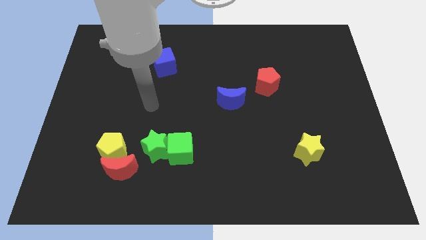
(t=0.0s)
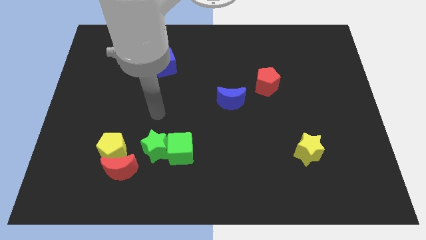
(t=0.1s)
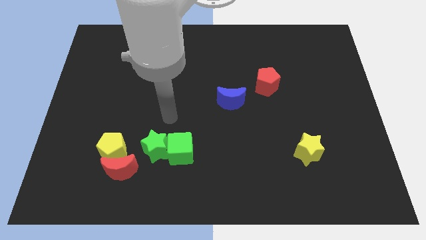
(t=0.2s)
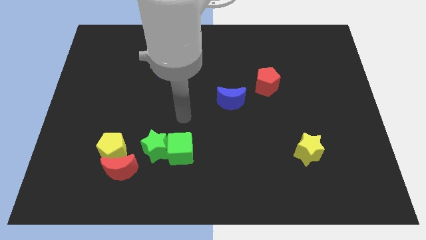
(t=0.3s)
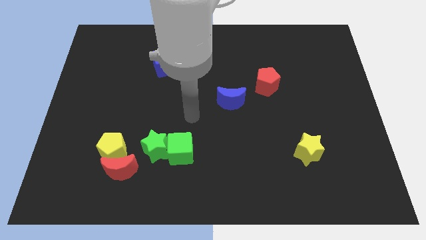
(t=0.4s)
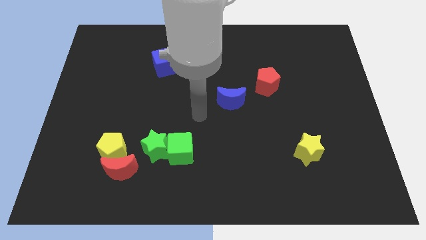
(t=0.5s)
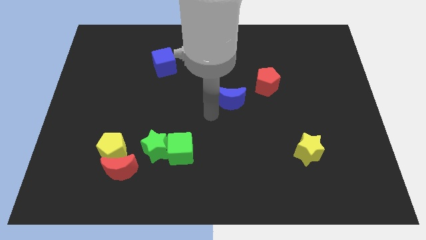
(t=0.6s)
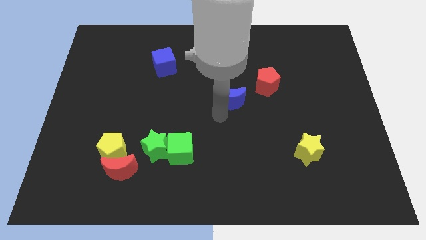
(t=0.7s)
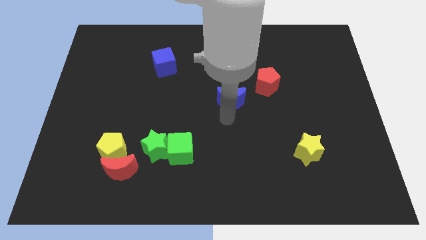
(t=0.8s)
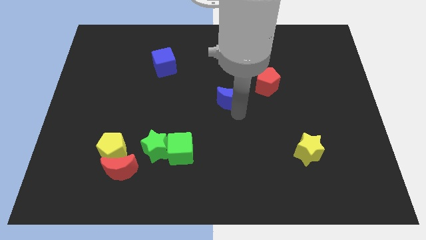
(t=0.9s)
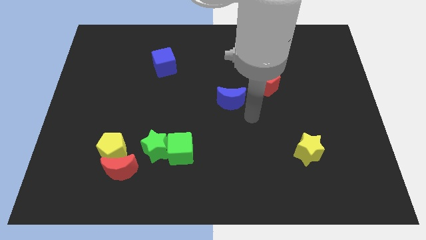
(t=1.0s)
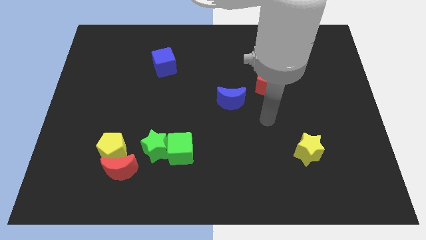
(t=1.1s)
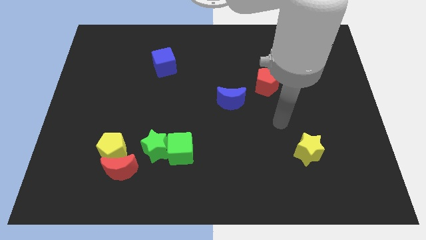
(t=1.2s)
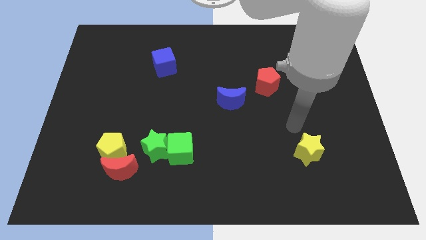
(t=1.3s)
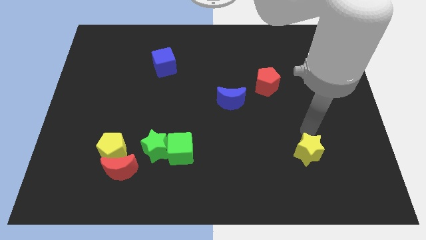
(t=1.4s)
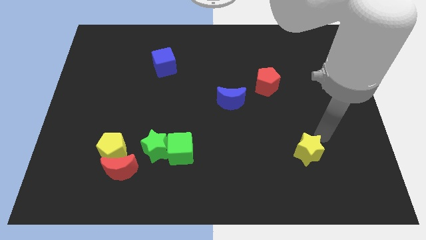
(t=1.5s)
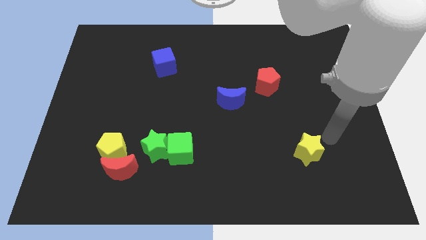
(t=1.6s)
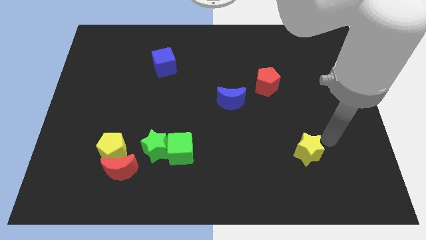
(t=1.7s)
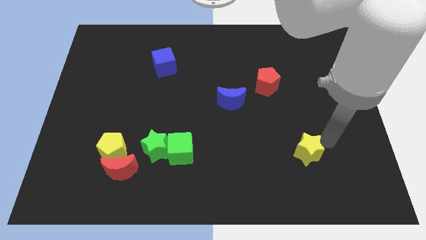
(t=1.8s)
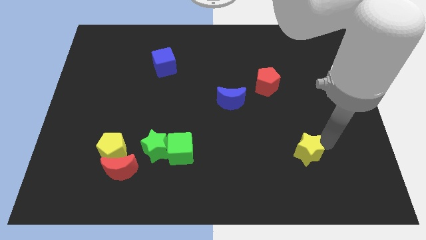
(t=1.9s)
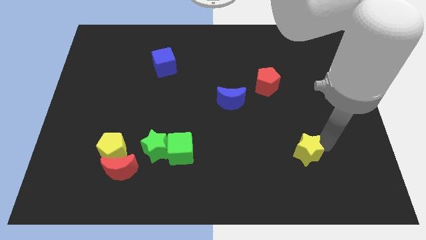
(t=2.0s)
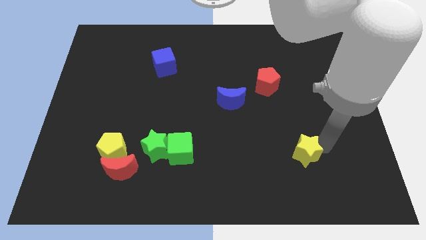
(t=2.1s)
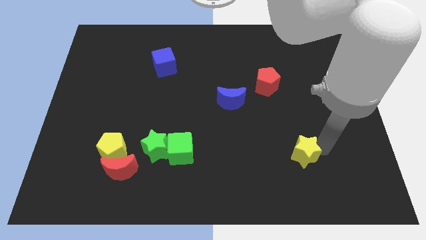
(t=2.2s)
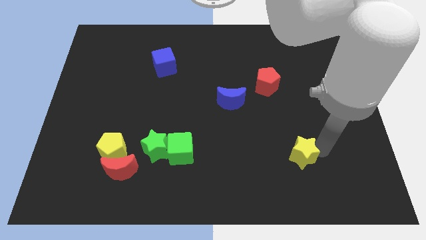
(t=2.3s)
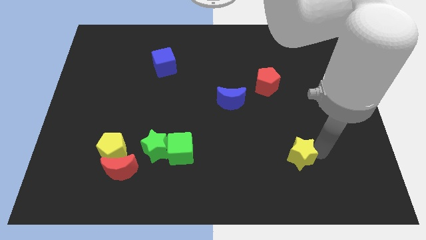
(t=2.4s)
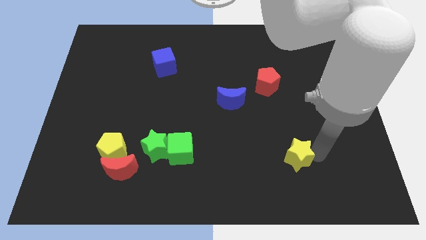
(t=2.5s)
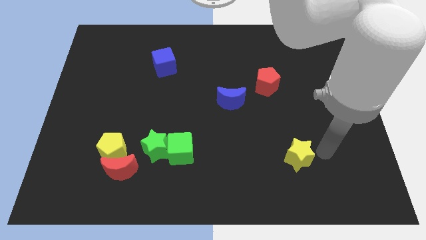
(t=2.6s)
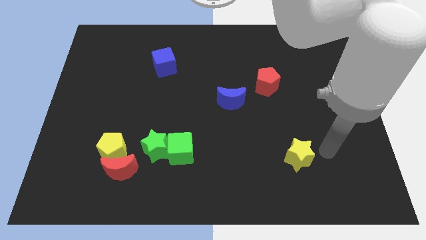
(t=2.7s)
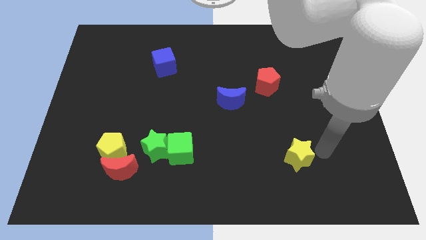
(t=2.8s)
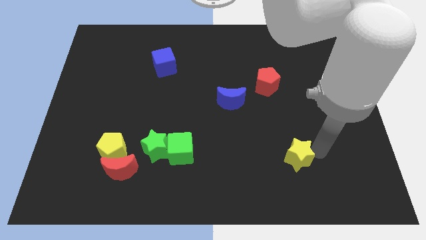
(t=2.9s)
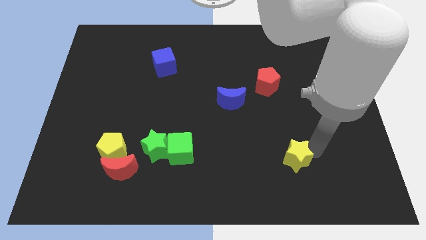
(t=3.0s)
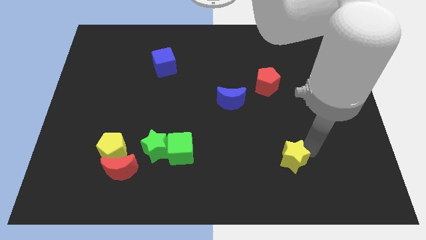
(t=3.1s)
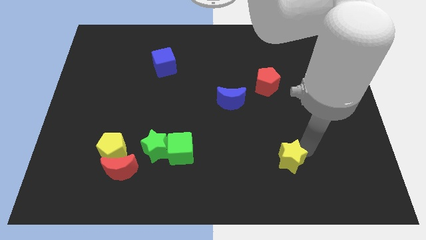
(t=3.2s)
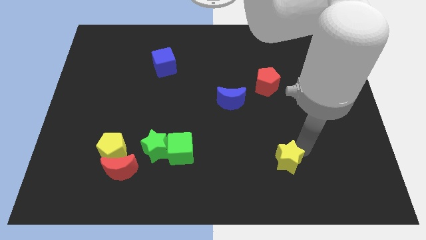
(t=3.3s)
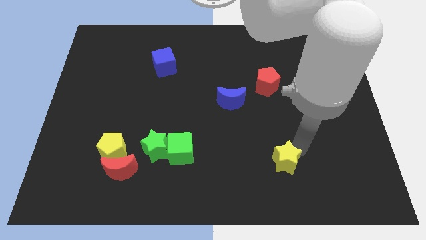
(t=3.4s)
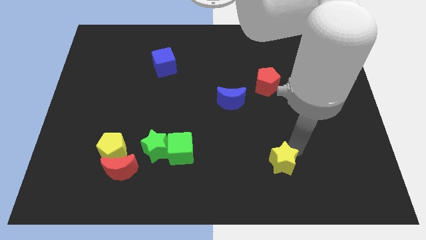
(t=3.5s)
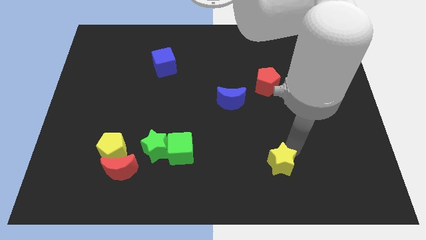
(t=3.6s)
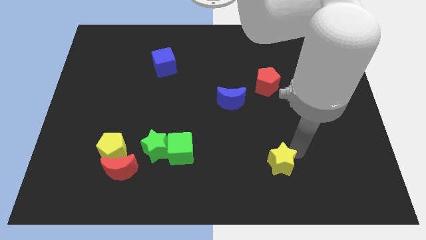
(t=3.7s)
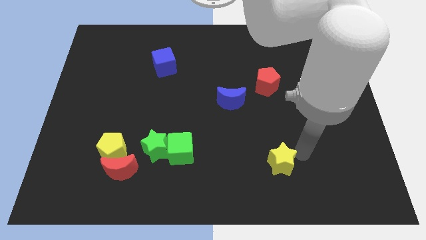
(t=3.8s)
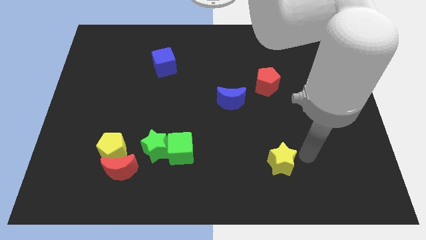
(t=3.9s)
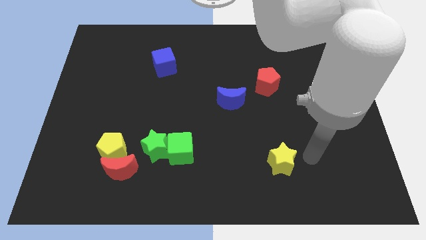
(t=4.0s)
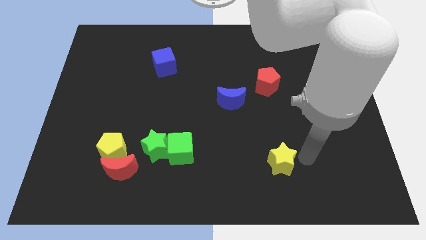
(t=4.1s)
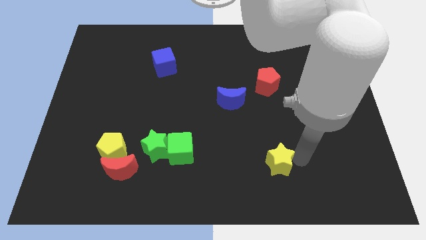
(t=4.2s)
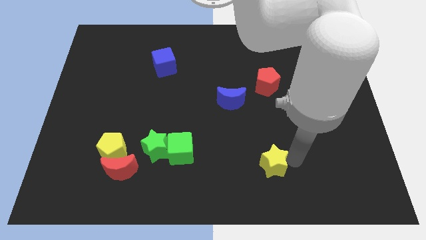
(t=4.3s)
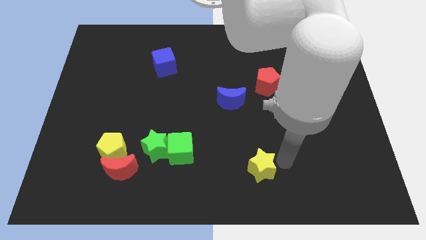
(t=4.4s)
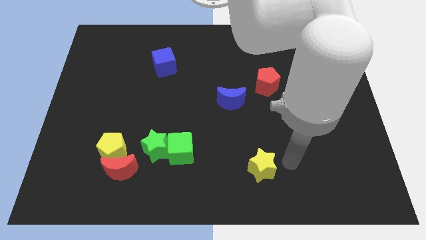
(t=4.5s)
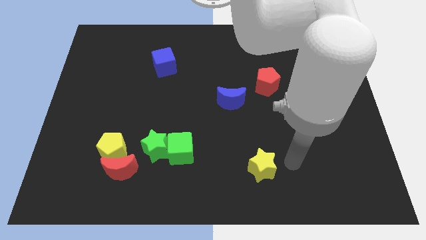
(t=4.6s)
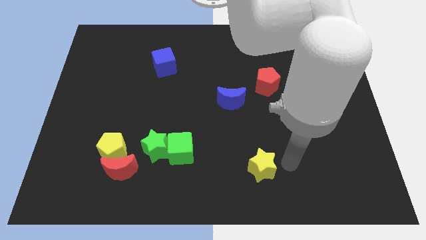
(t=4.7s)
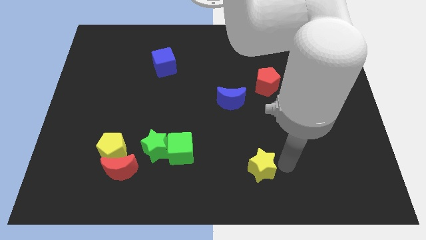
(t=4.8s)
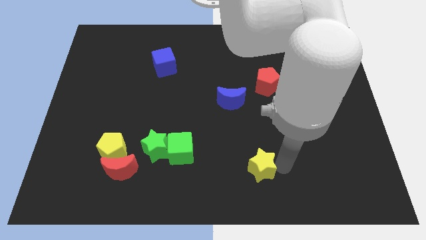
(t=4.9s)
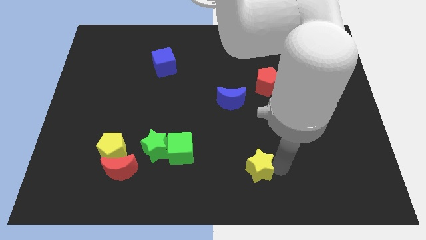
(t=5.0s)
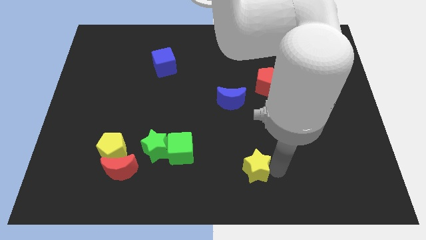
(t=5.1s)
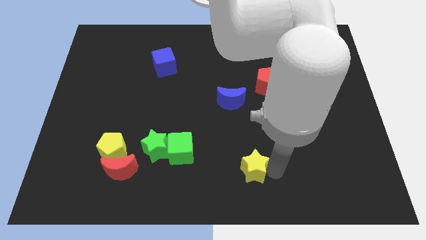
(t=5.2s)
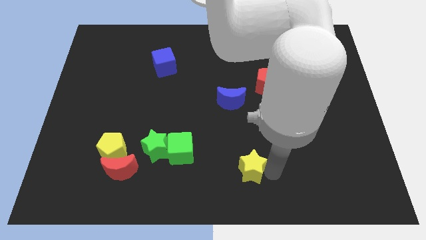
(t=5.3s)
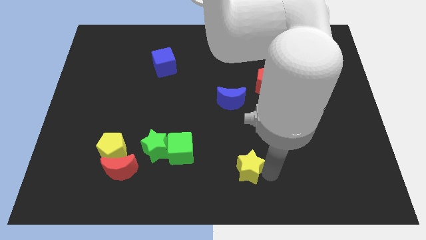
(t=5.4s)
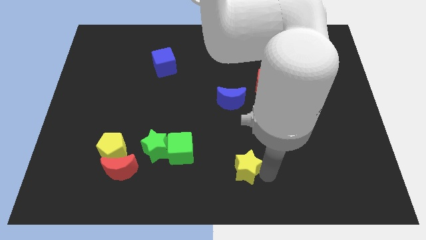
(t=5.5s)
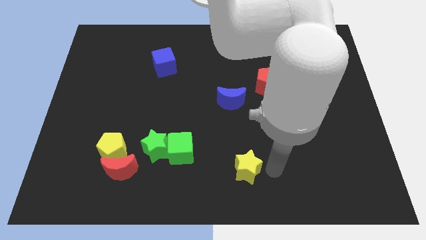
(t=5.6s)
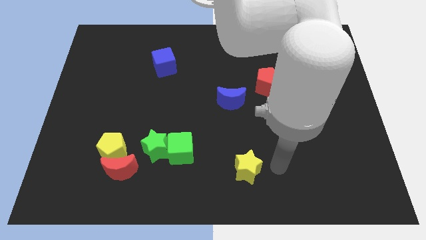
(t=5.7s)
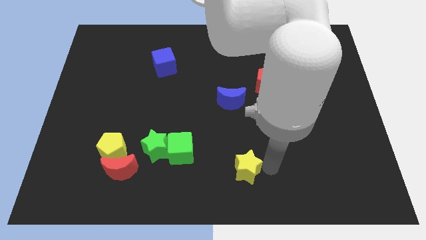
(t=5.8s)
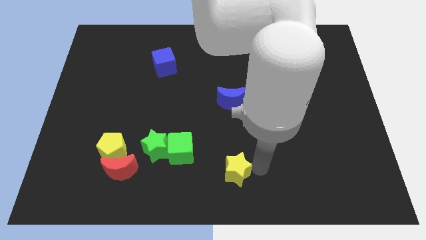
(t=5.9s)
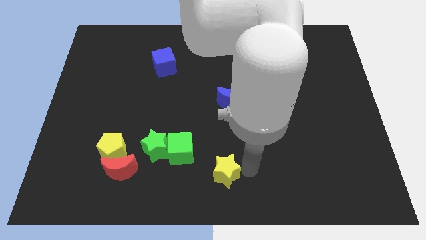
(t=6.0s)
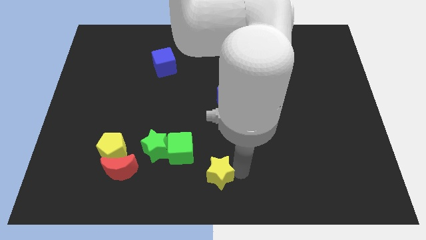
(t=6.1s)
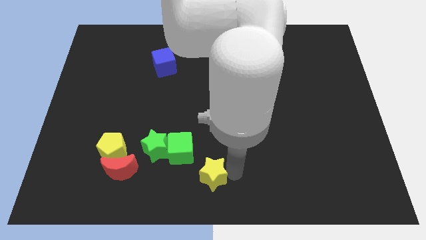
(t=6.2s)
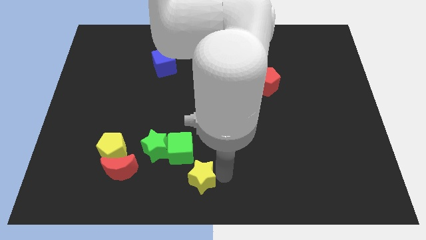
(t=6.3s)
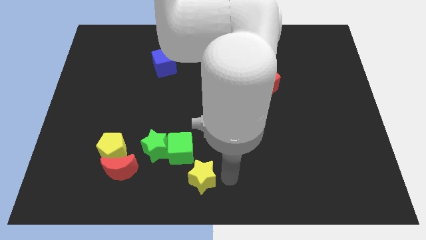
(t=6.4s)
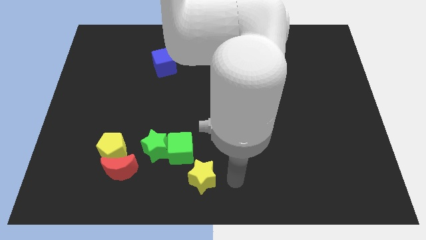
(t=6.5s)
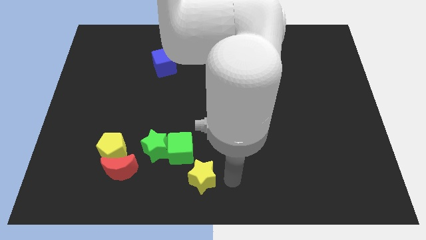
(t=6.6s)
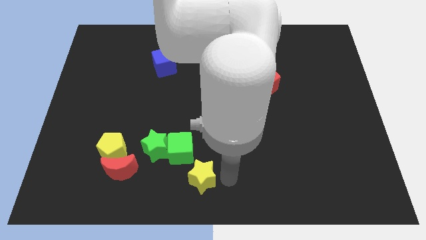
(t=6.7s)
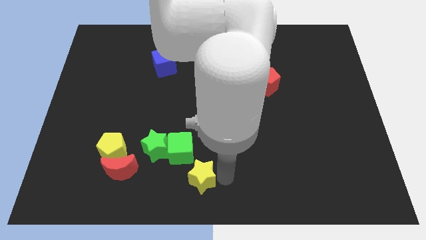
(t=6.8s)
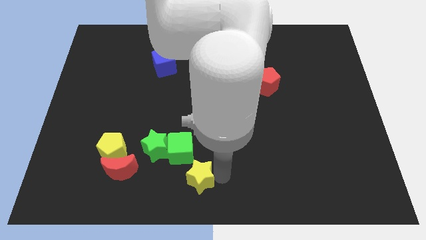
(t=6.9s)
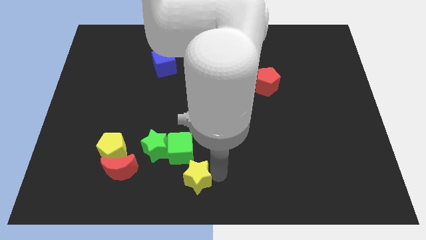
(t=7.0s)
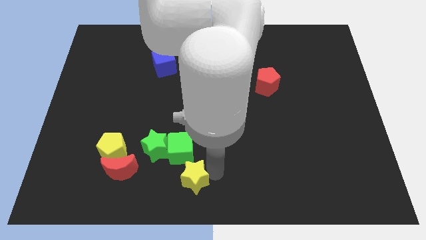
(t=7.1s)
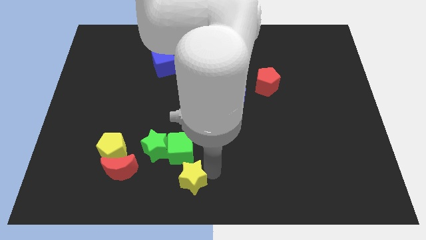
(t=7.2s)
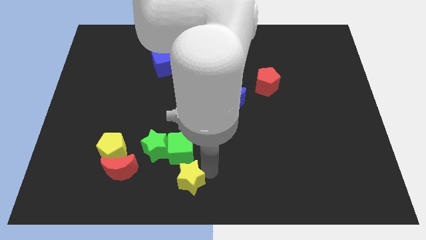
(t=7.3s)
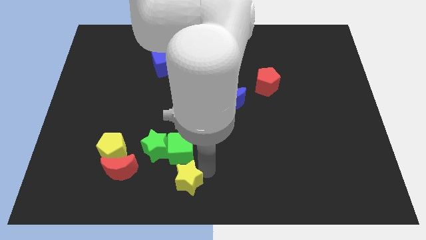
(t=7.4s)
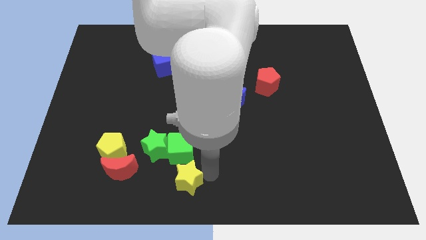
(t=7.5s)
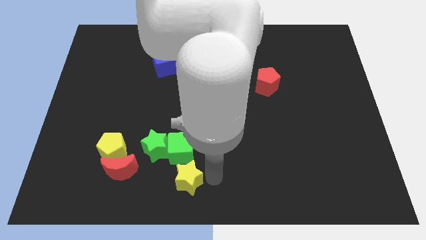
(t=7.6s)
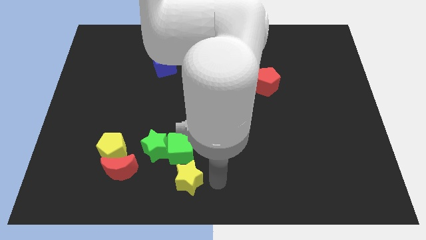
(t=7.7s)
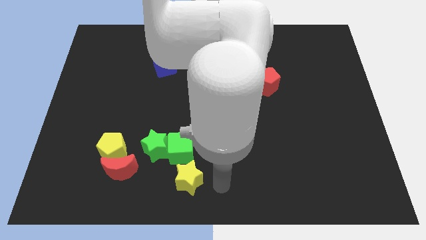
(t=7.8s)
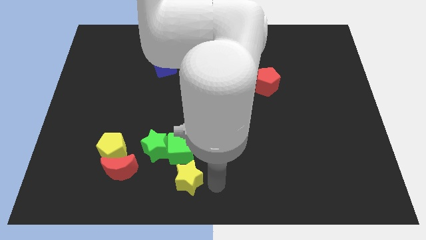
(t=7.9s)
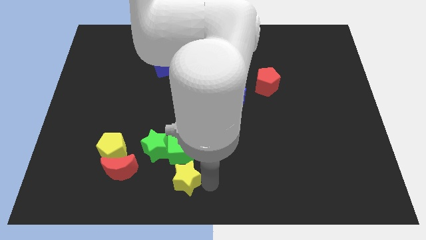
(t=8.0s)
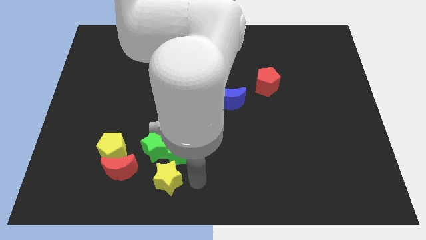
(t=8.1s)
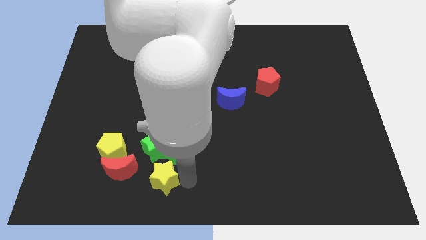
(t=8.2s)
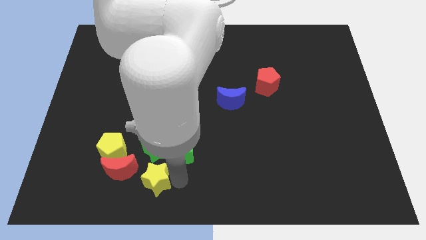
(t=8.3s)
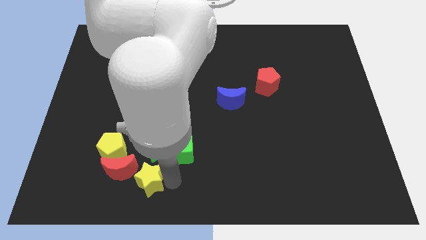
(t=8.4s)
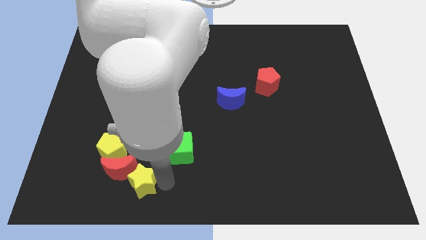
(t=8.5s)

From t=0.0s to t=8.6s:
slide the yellow star towards the red moon
